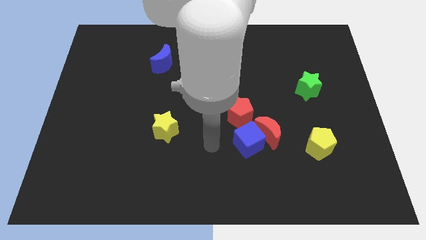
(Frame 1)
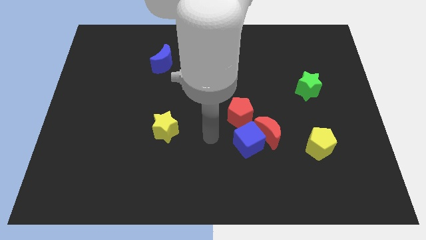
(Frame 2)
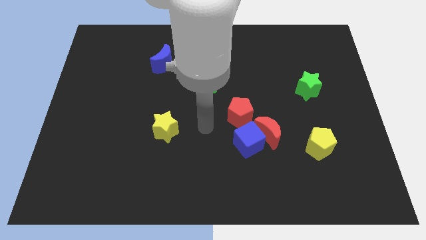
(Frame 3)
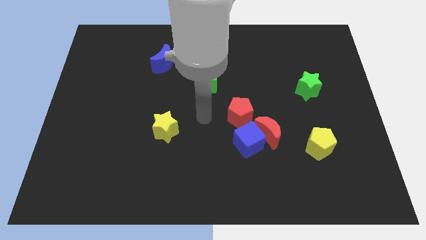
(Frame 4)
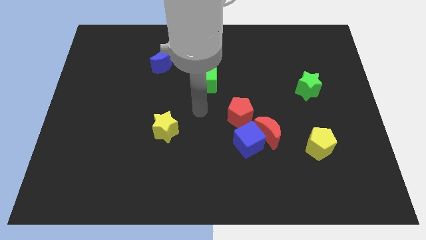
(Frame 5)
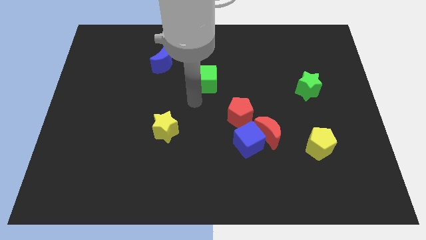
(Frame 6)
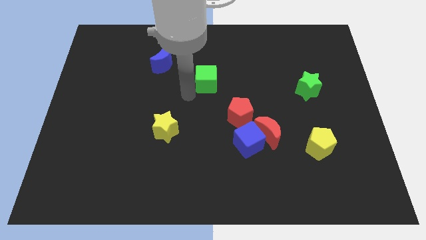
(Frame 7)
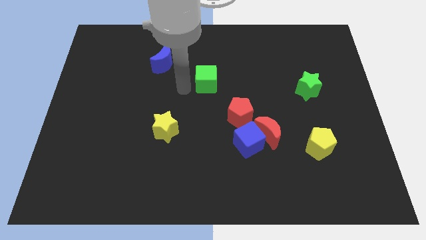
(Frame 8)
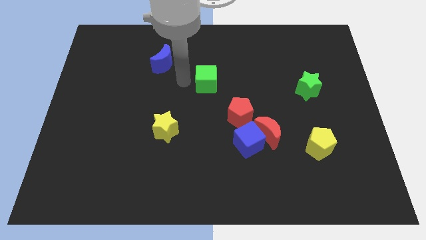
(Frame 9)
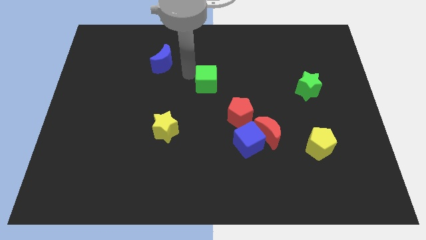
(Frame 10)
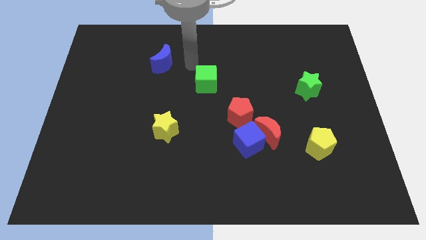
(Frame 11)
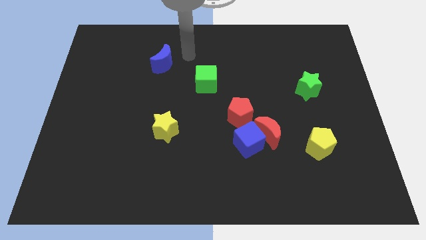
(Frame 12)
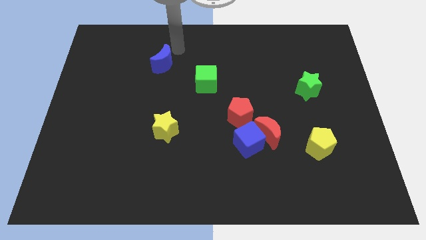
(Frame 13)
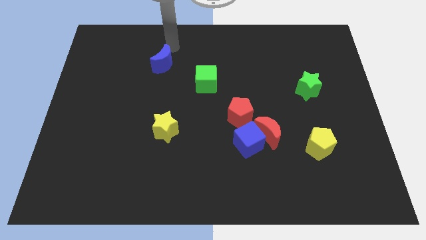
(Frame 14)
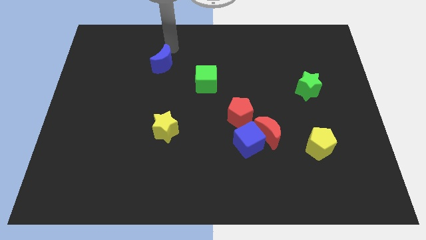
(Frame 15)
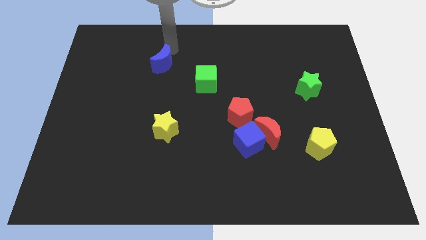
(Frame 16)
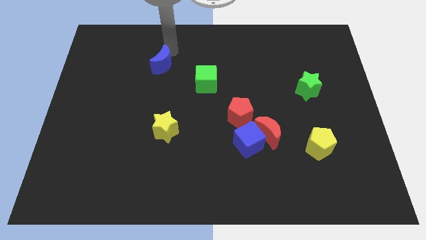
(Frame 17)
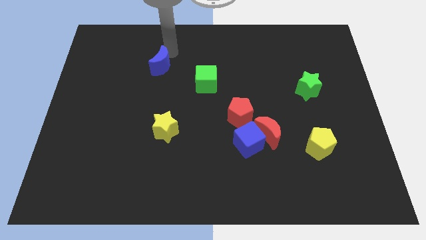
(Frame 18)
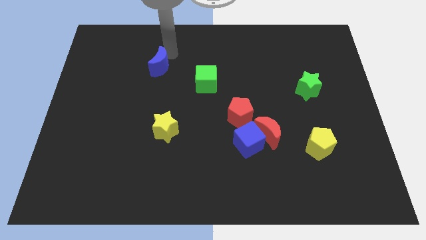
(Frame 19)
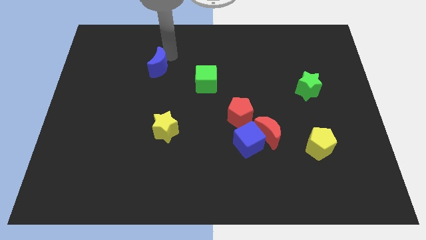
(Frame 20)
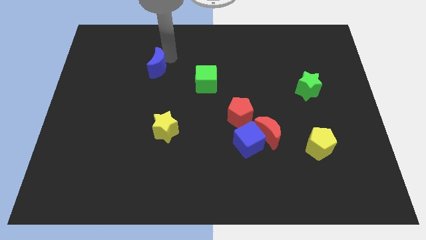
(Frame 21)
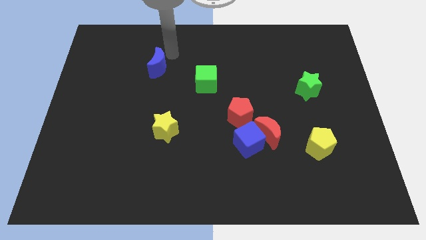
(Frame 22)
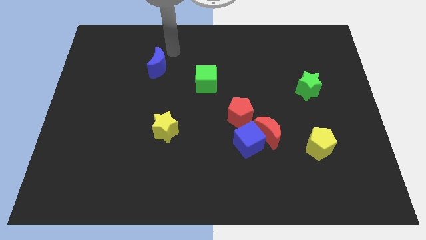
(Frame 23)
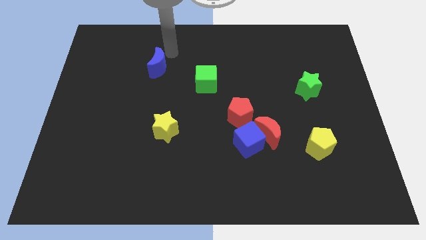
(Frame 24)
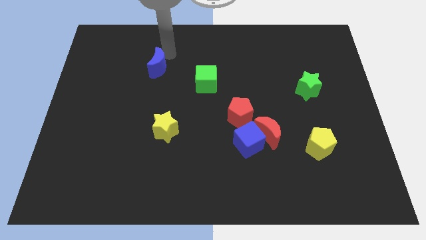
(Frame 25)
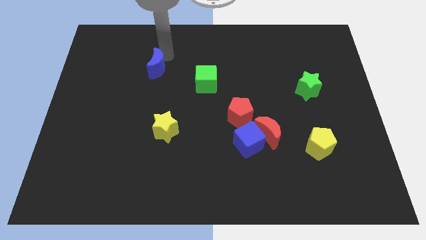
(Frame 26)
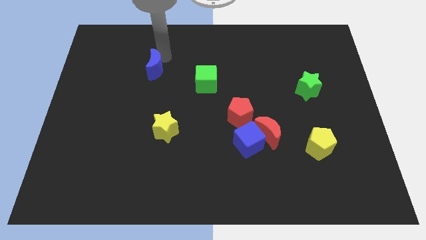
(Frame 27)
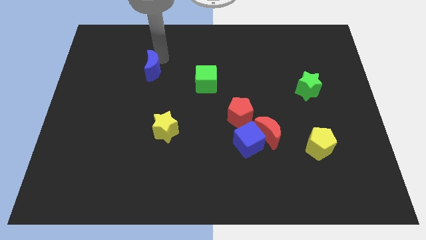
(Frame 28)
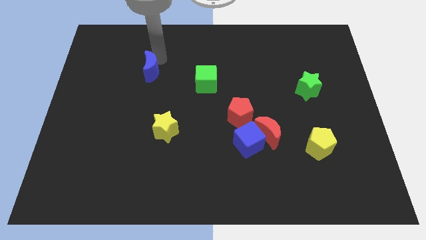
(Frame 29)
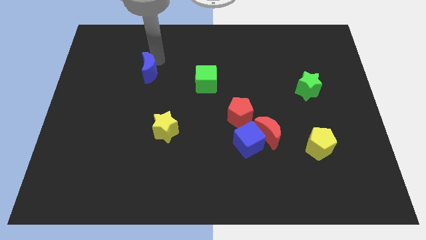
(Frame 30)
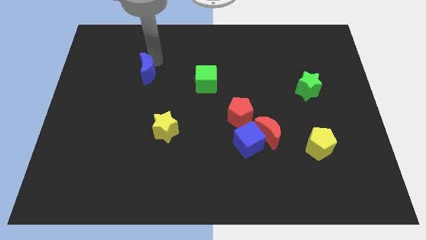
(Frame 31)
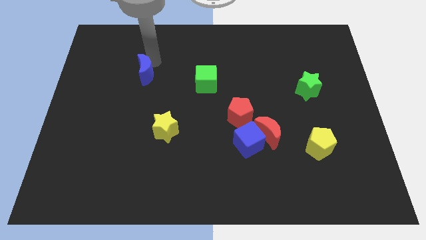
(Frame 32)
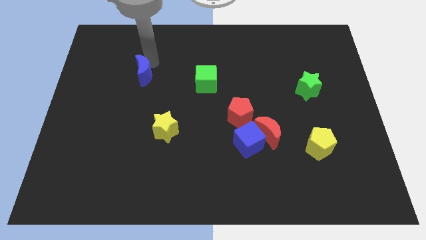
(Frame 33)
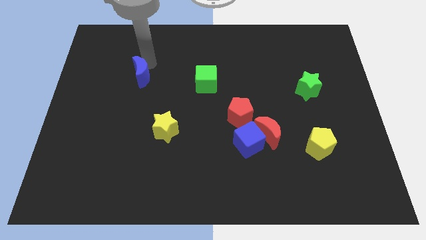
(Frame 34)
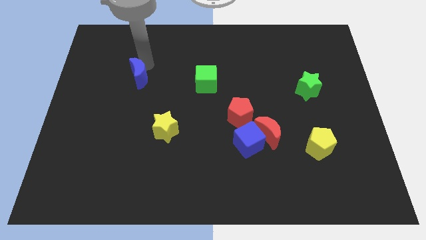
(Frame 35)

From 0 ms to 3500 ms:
move the blue moon a little diagonally down and to the left

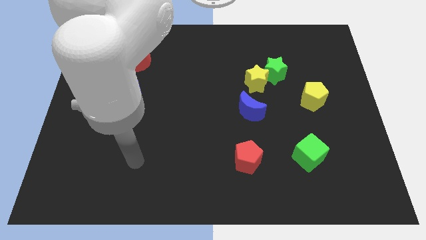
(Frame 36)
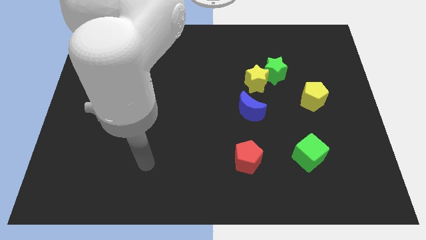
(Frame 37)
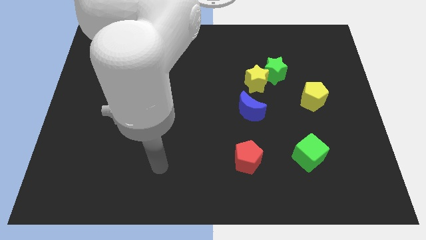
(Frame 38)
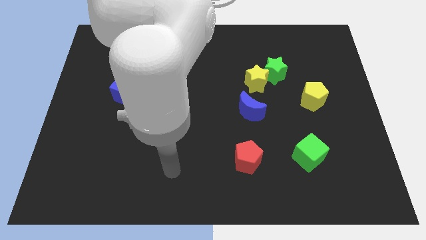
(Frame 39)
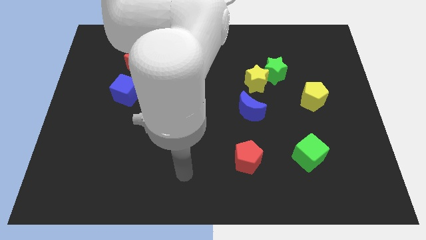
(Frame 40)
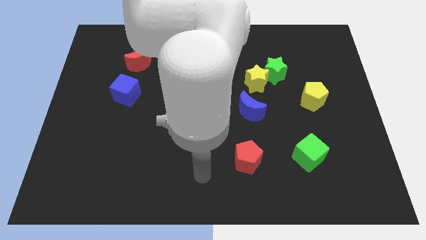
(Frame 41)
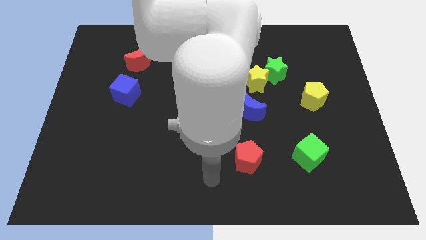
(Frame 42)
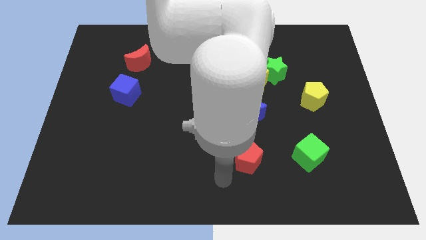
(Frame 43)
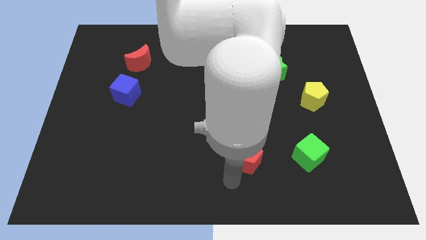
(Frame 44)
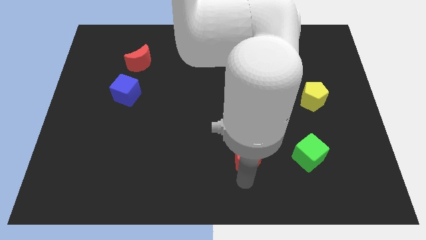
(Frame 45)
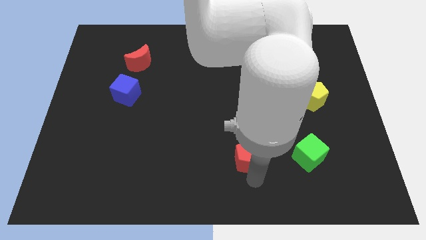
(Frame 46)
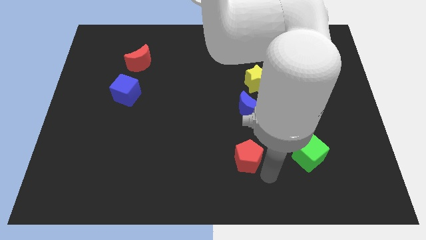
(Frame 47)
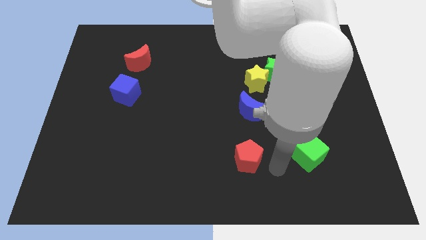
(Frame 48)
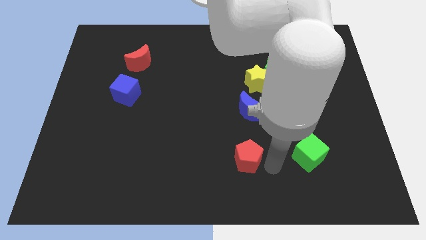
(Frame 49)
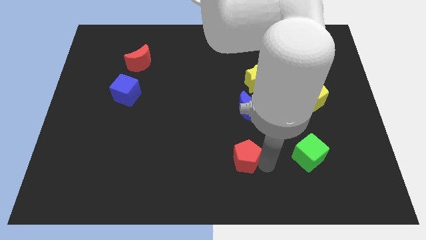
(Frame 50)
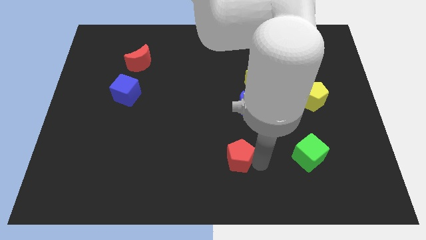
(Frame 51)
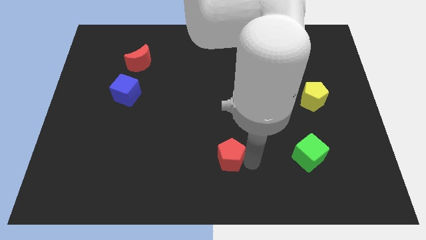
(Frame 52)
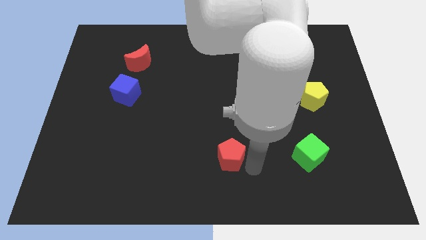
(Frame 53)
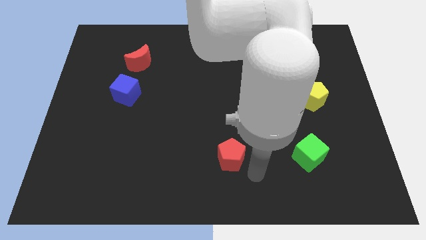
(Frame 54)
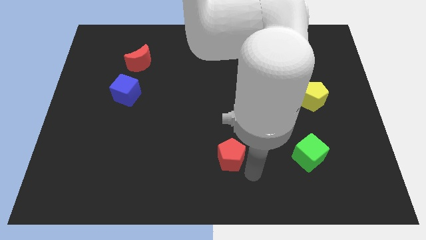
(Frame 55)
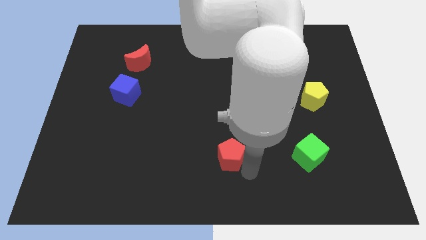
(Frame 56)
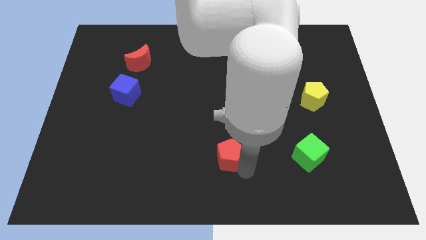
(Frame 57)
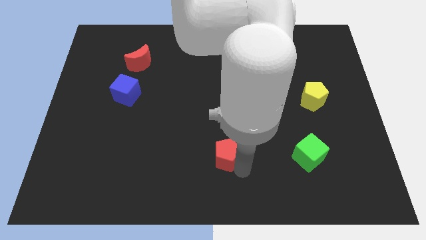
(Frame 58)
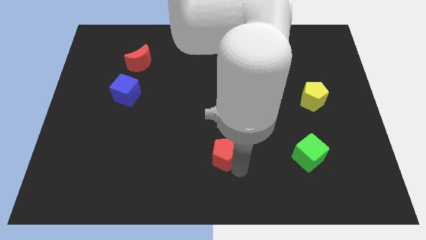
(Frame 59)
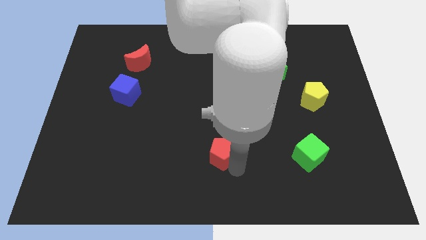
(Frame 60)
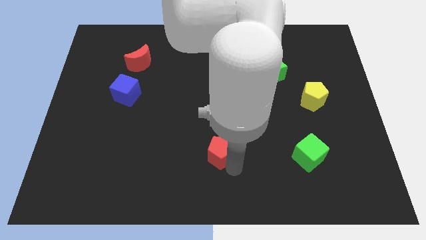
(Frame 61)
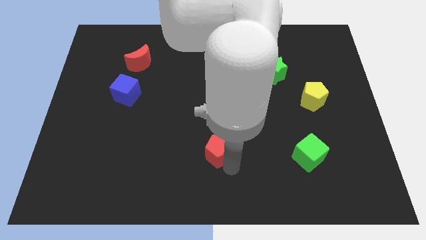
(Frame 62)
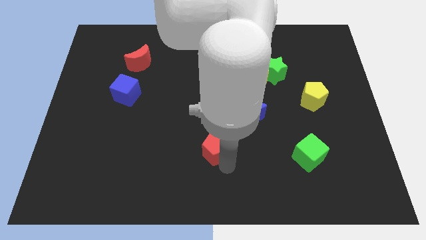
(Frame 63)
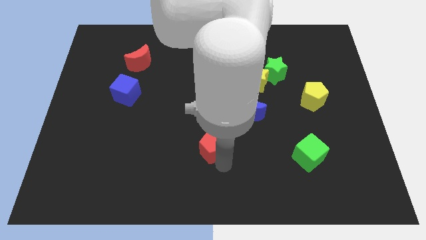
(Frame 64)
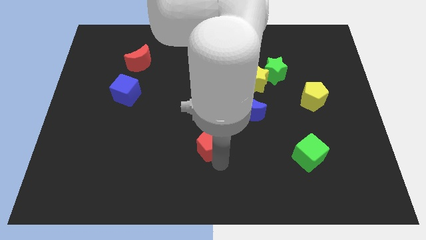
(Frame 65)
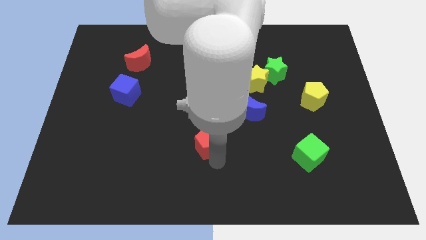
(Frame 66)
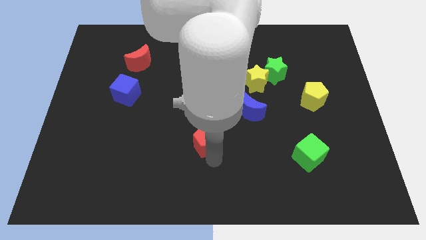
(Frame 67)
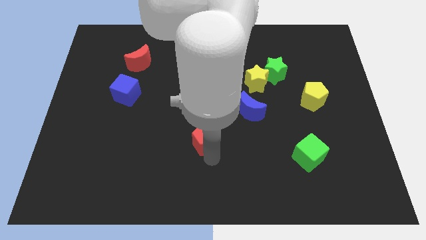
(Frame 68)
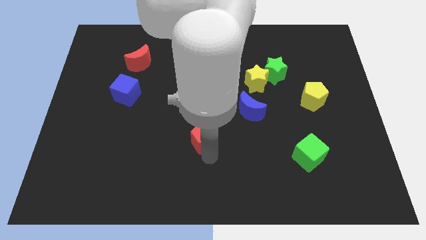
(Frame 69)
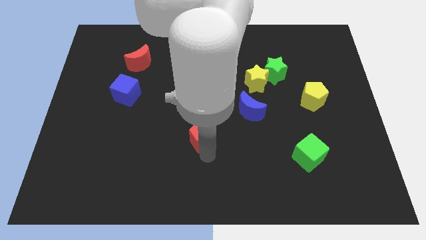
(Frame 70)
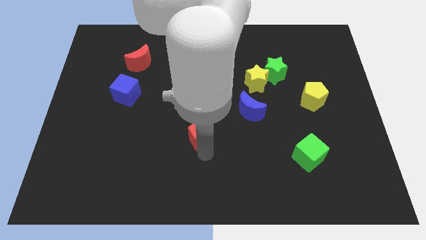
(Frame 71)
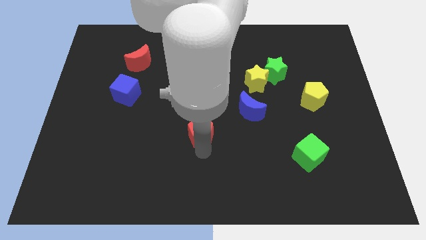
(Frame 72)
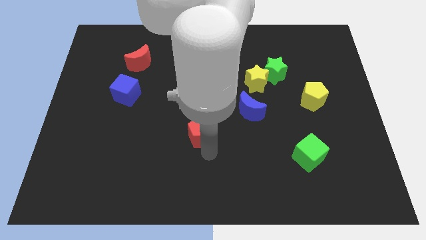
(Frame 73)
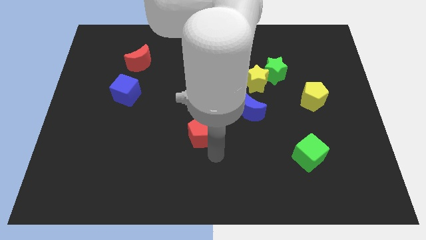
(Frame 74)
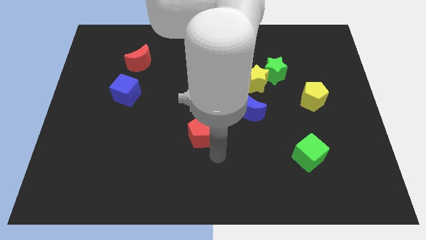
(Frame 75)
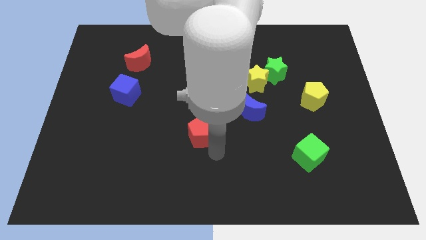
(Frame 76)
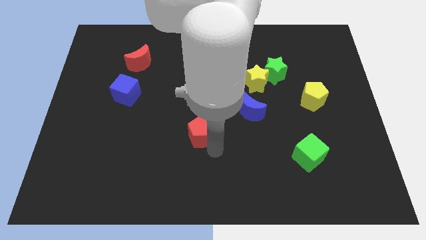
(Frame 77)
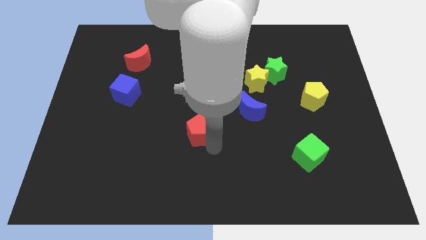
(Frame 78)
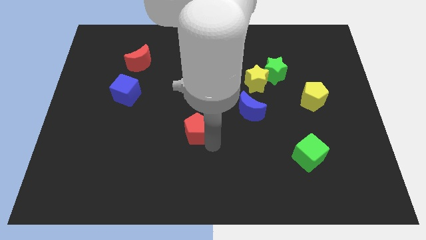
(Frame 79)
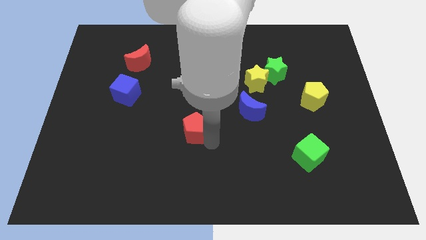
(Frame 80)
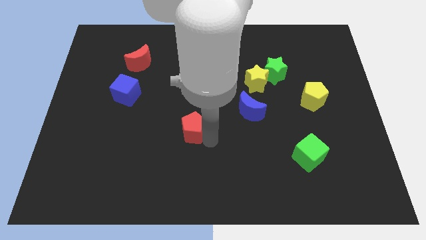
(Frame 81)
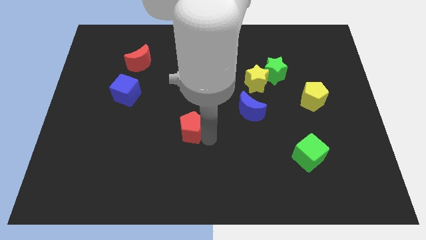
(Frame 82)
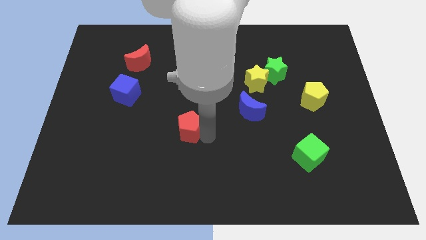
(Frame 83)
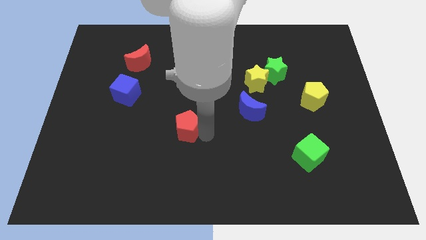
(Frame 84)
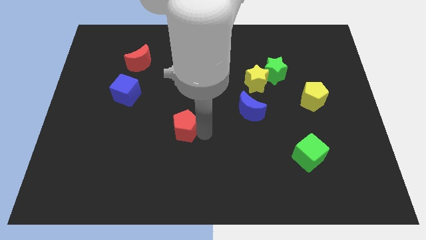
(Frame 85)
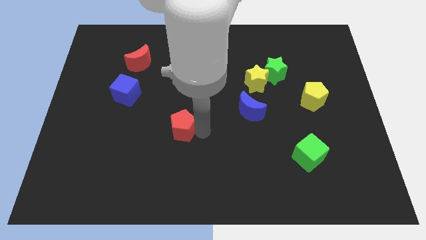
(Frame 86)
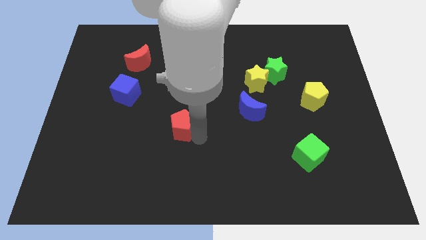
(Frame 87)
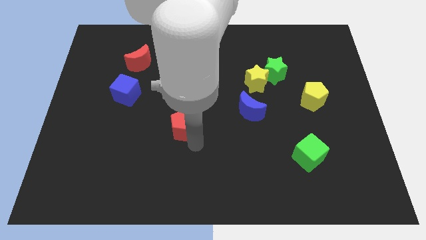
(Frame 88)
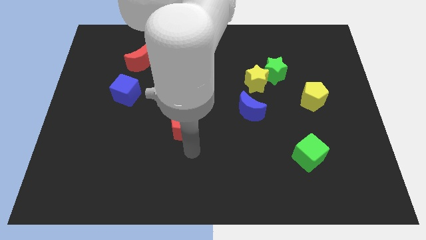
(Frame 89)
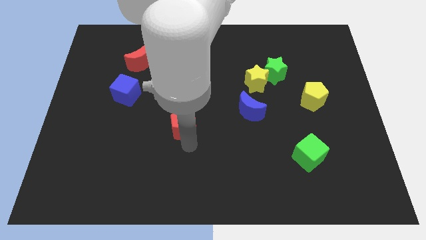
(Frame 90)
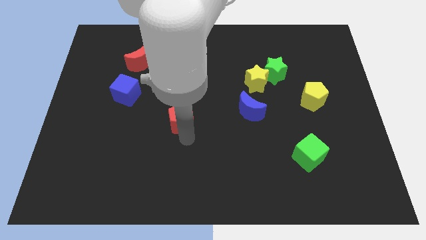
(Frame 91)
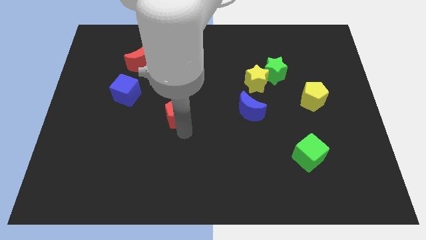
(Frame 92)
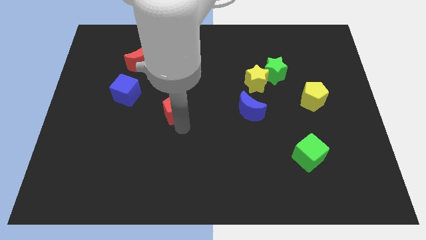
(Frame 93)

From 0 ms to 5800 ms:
push the red pentagon up and to the left
